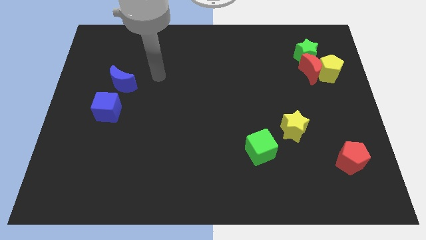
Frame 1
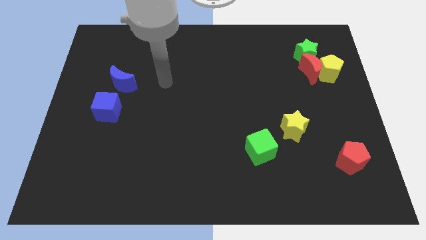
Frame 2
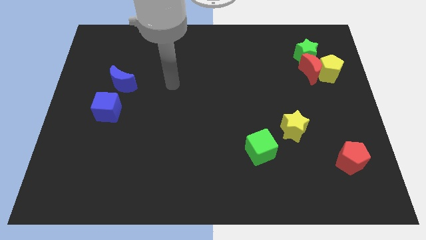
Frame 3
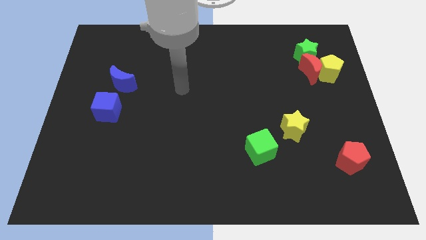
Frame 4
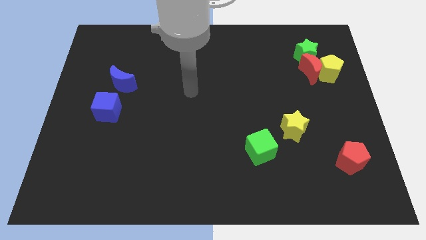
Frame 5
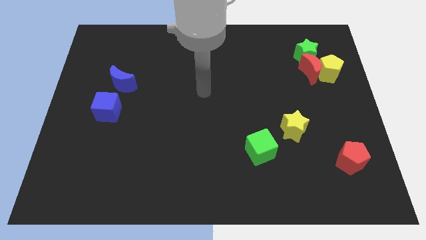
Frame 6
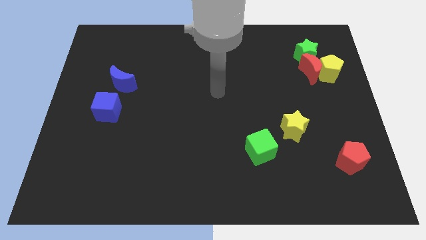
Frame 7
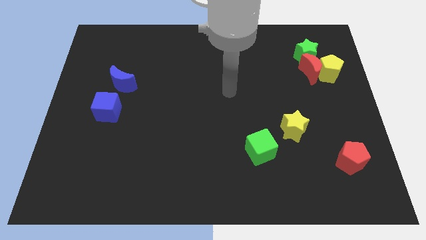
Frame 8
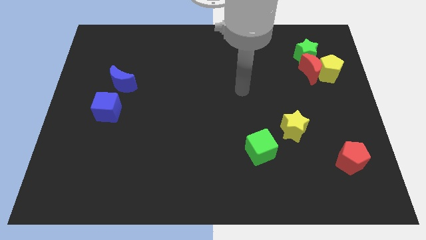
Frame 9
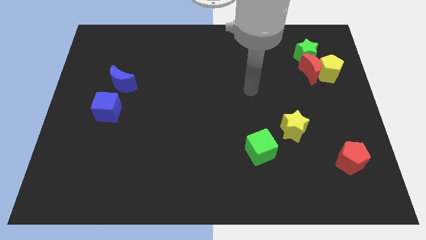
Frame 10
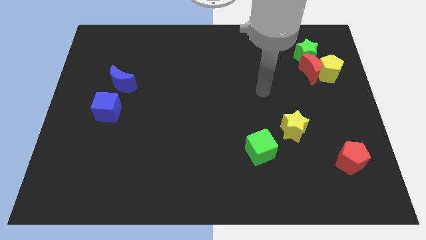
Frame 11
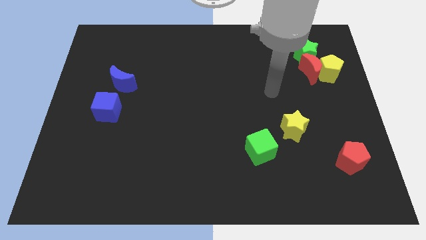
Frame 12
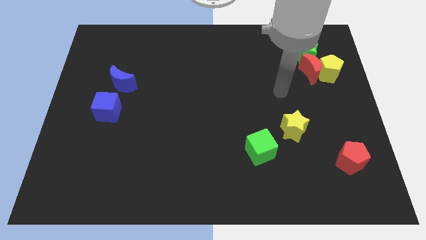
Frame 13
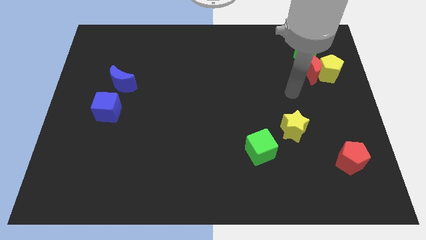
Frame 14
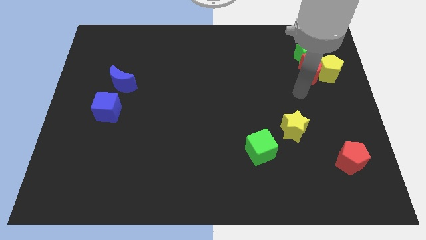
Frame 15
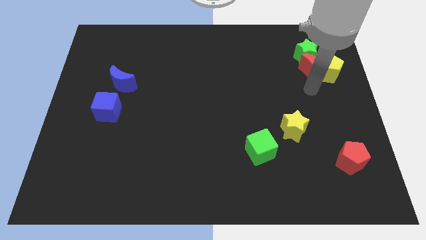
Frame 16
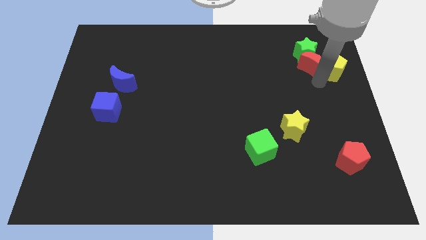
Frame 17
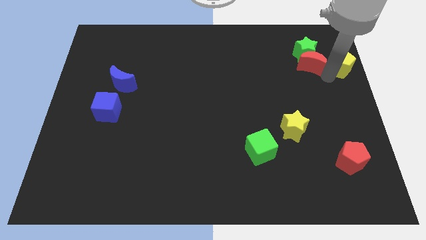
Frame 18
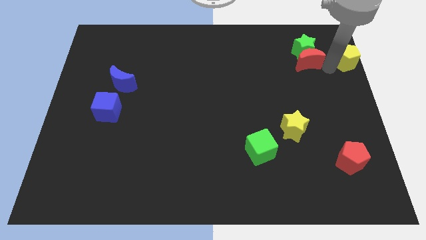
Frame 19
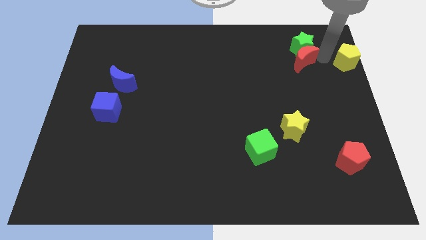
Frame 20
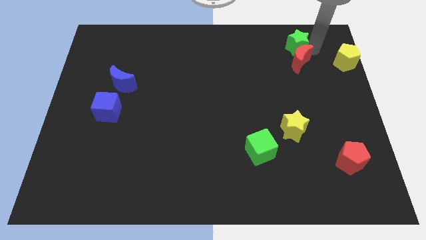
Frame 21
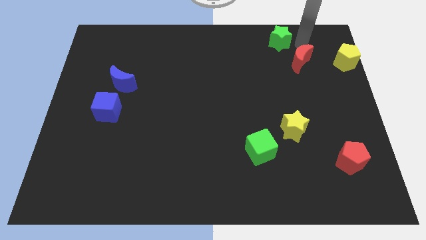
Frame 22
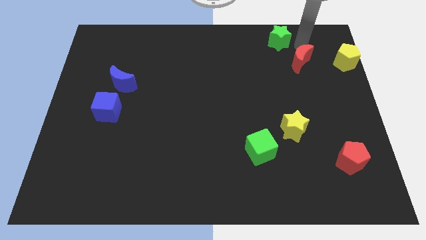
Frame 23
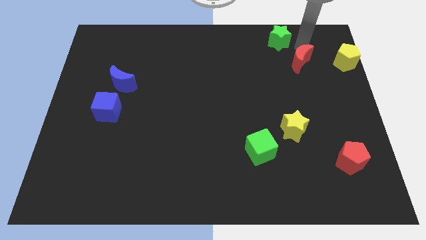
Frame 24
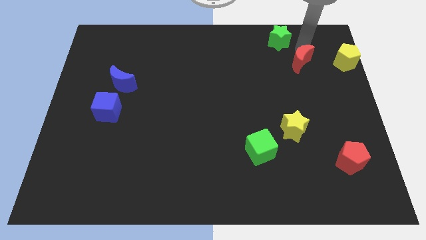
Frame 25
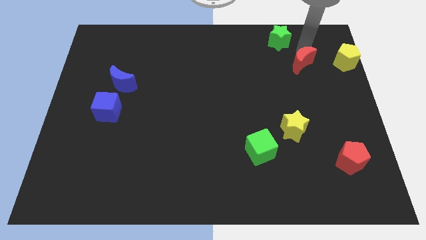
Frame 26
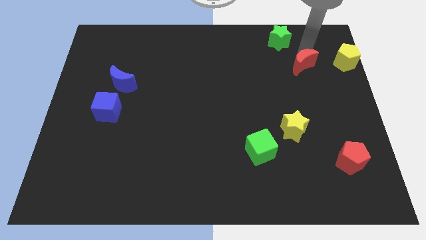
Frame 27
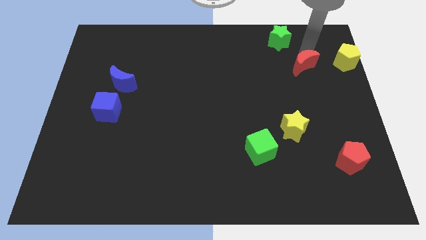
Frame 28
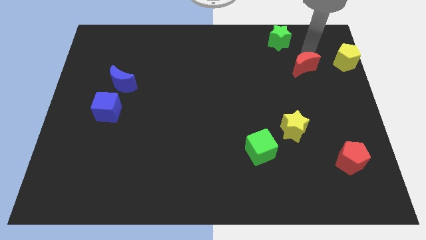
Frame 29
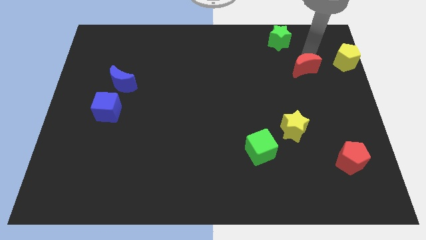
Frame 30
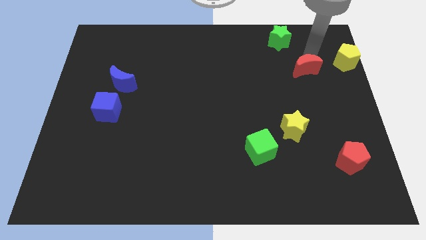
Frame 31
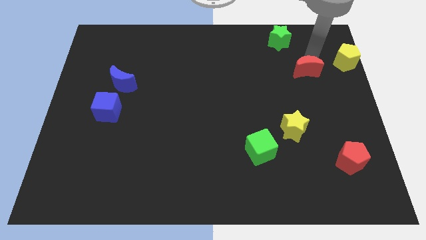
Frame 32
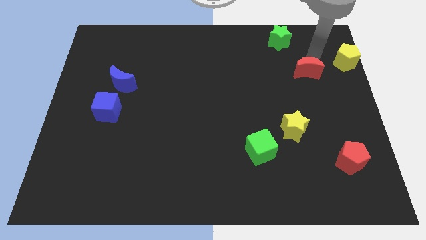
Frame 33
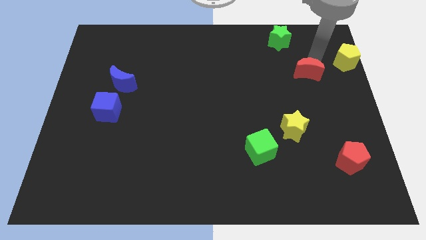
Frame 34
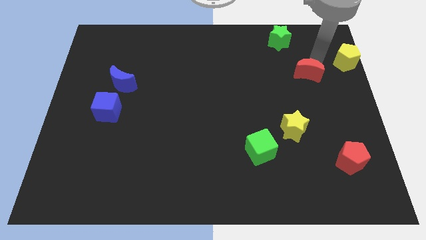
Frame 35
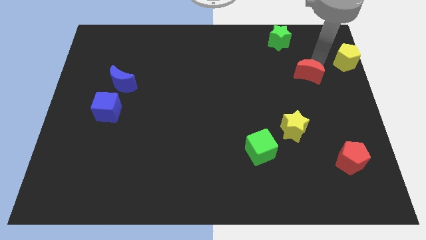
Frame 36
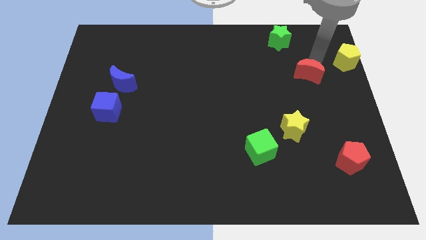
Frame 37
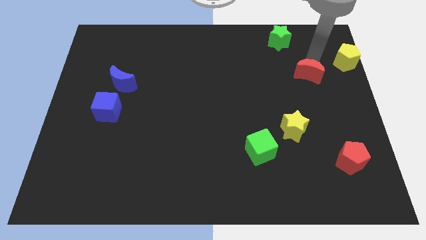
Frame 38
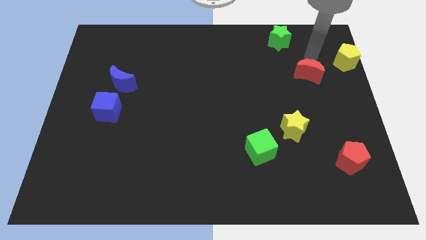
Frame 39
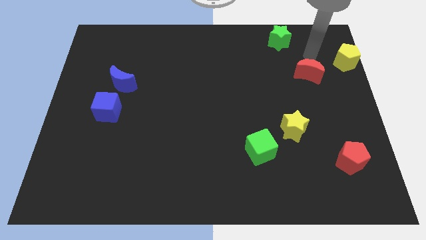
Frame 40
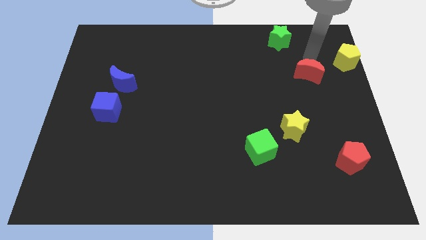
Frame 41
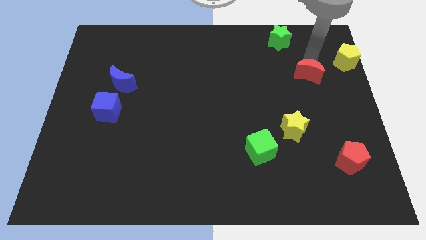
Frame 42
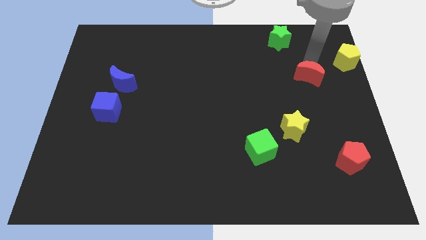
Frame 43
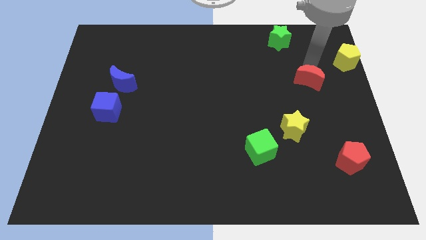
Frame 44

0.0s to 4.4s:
move the red moon away from the yellow pentagon and green star

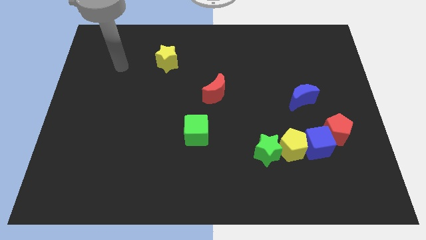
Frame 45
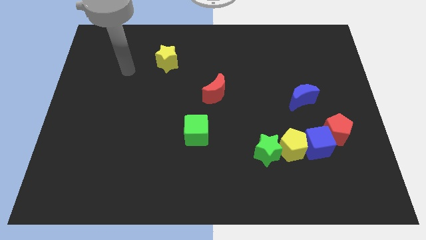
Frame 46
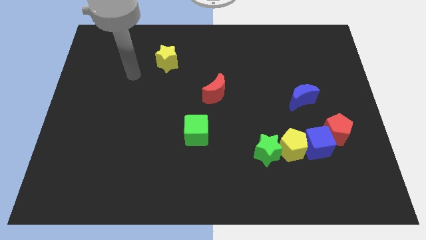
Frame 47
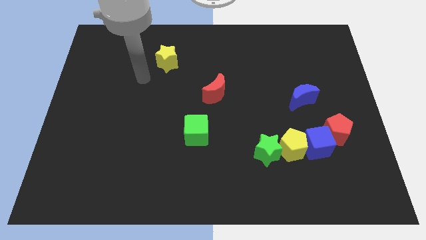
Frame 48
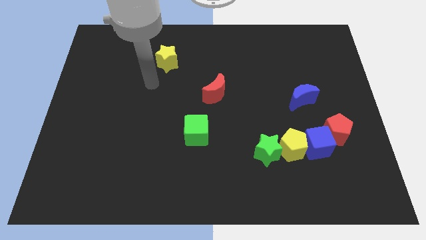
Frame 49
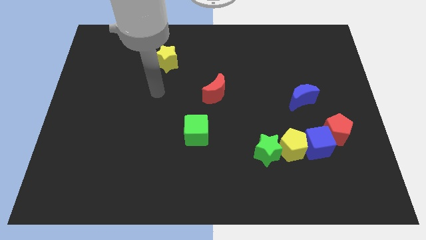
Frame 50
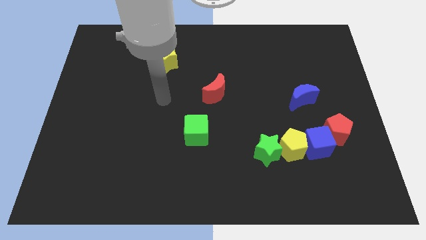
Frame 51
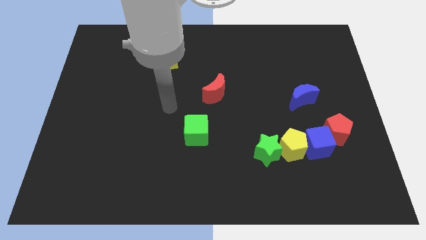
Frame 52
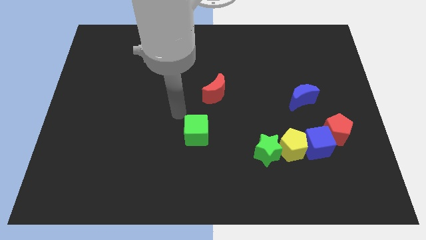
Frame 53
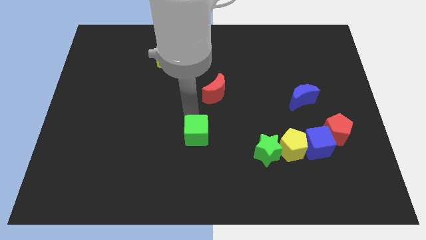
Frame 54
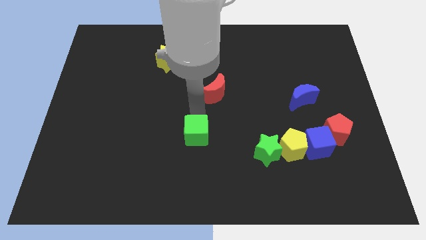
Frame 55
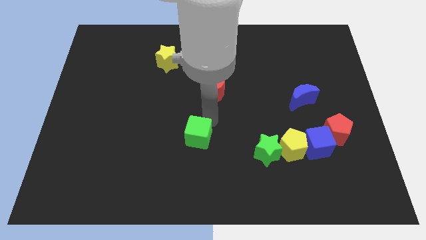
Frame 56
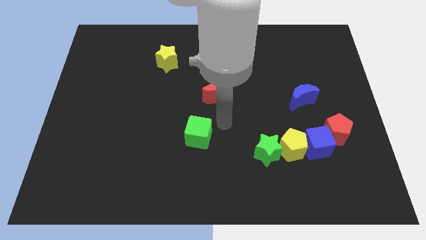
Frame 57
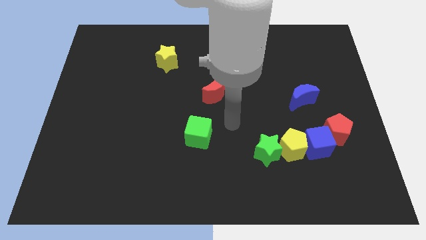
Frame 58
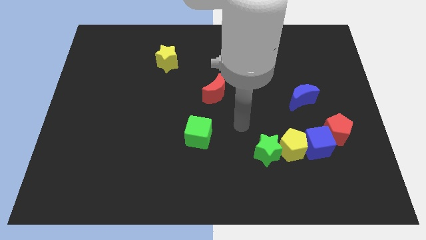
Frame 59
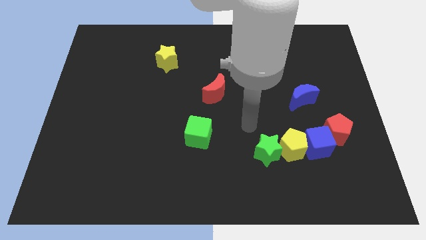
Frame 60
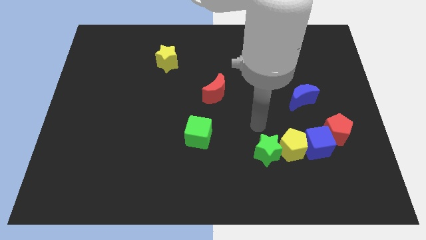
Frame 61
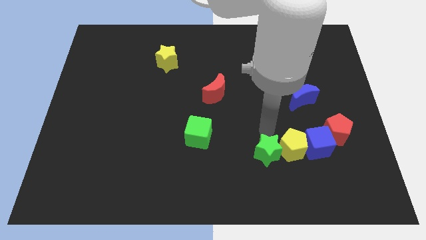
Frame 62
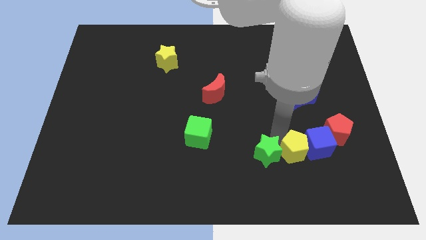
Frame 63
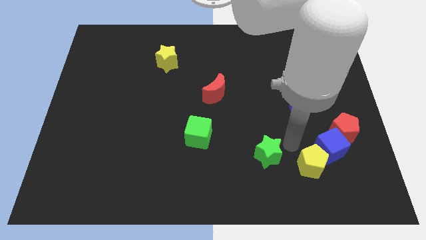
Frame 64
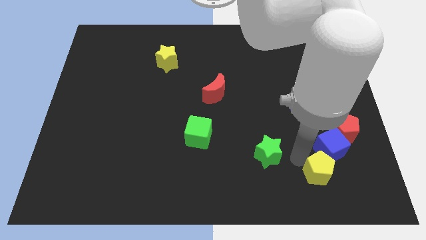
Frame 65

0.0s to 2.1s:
separate the green star from the yellow pentagon

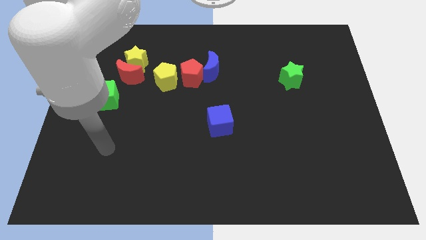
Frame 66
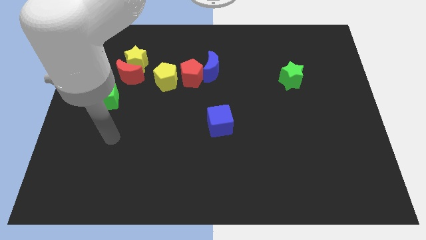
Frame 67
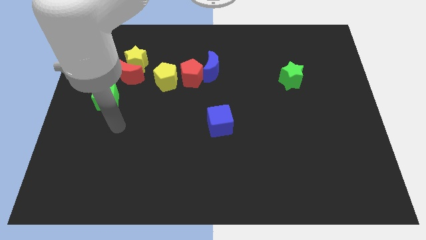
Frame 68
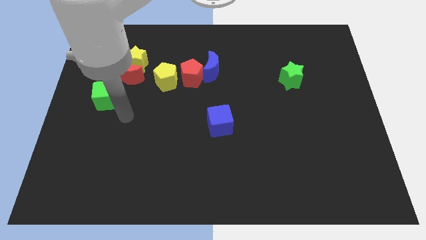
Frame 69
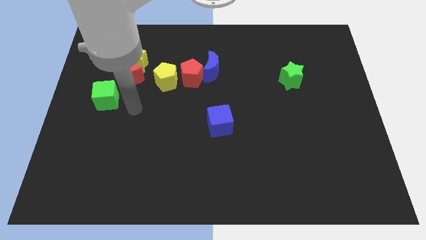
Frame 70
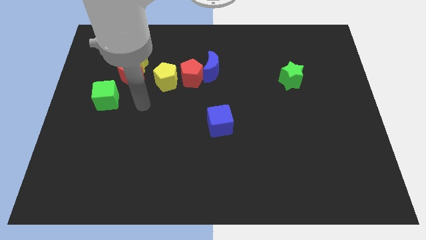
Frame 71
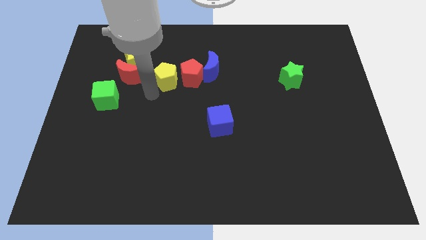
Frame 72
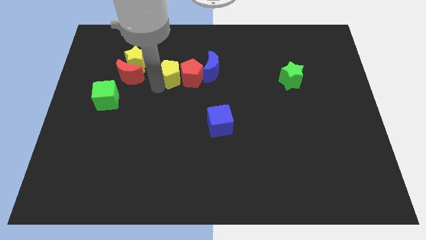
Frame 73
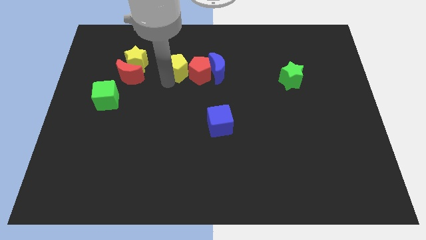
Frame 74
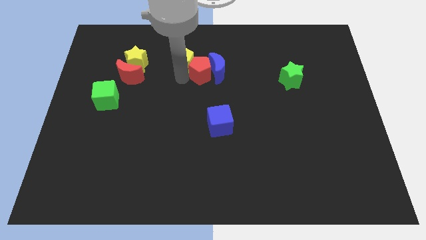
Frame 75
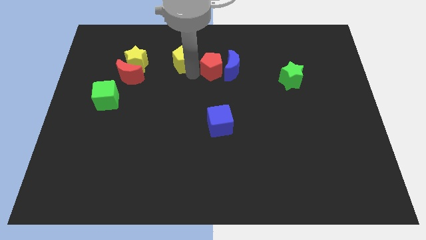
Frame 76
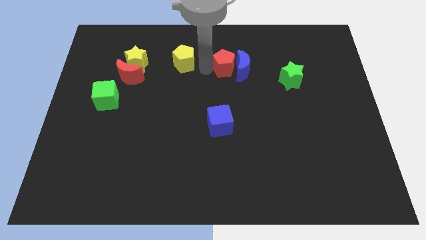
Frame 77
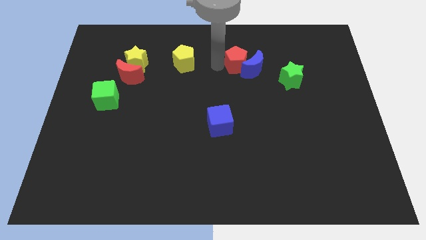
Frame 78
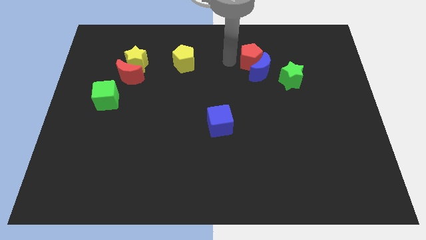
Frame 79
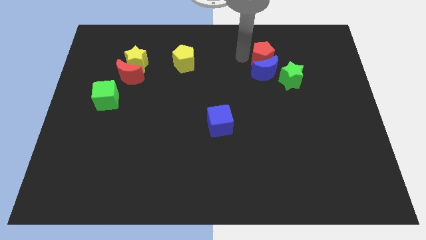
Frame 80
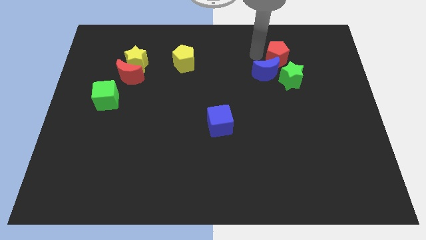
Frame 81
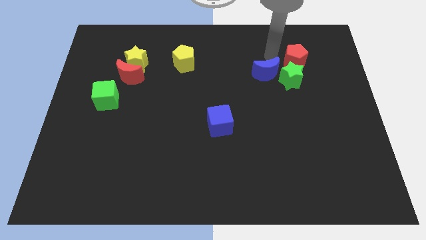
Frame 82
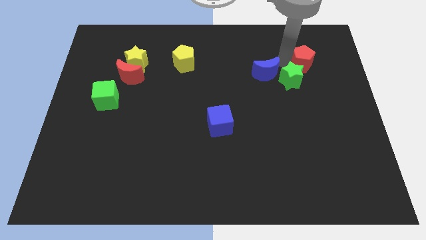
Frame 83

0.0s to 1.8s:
move the blue moon away from the red pentagon

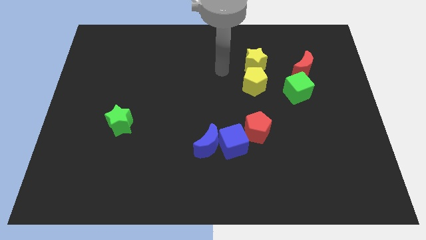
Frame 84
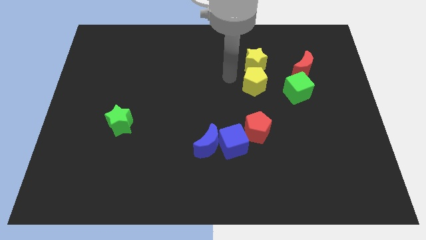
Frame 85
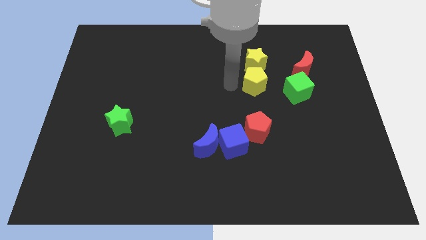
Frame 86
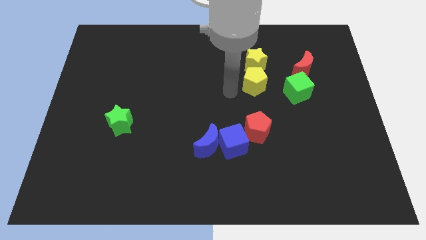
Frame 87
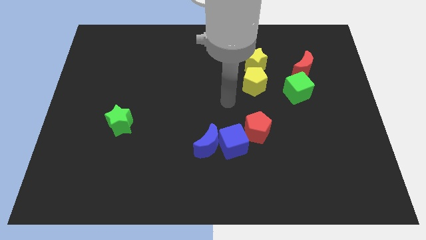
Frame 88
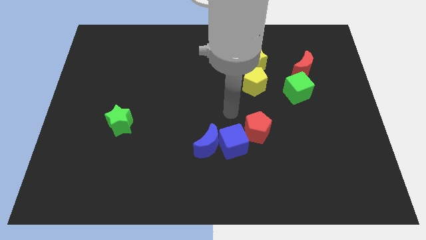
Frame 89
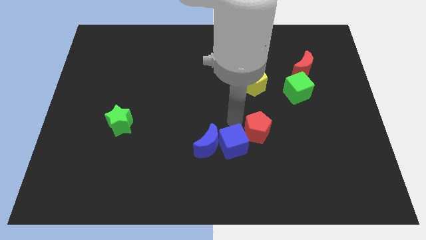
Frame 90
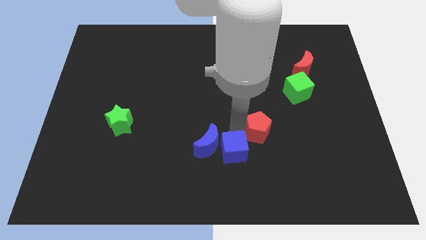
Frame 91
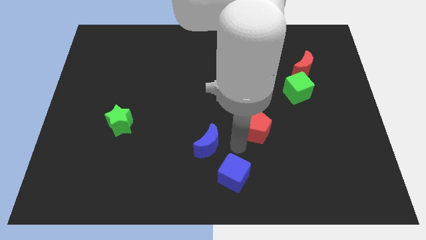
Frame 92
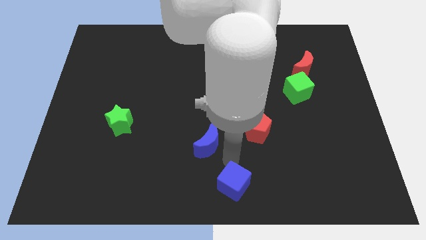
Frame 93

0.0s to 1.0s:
move the blue moon away from the blue cube
